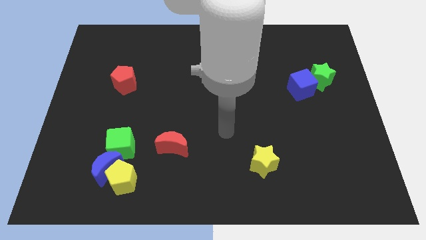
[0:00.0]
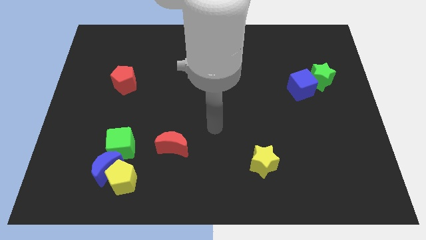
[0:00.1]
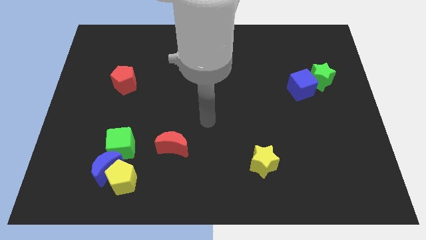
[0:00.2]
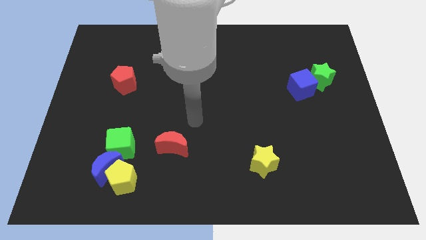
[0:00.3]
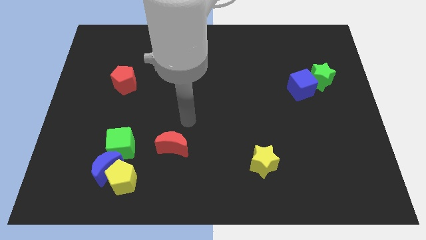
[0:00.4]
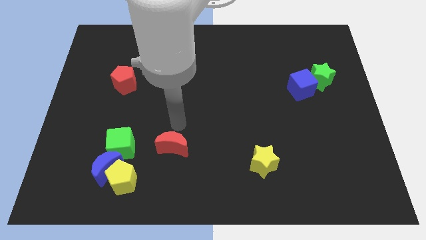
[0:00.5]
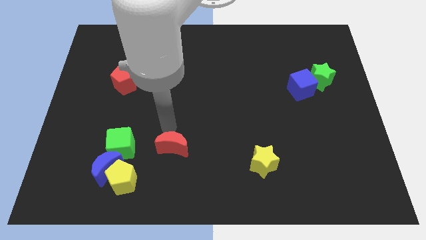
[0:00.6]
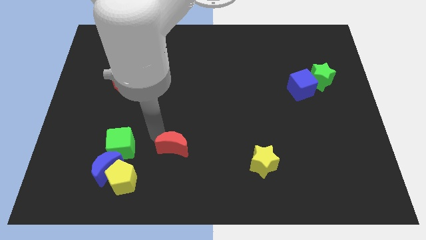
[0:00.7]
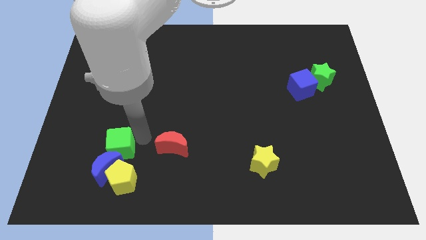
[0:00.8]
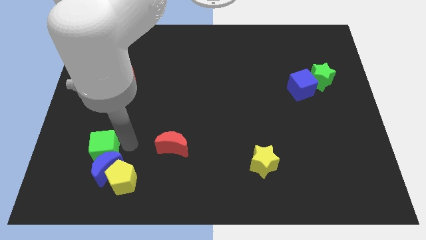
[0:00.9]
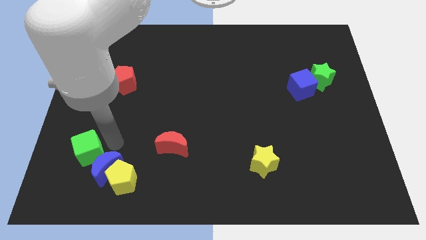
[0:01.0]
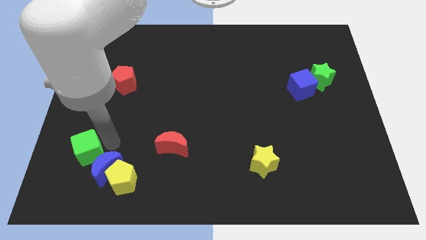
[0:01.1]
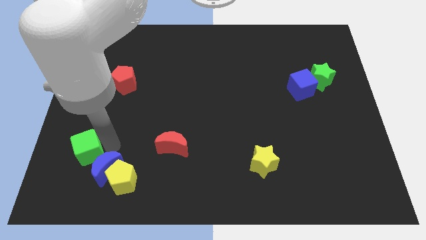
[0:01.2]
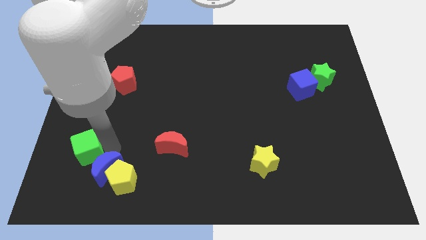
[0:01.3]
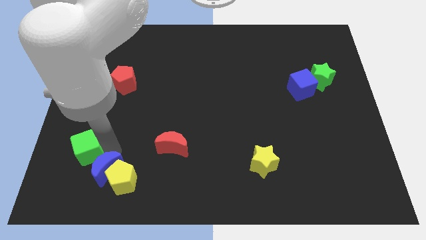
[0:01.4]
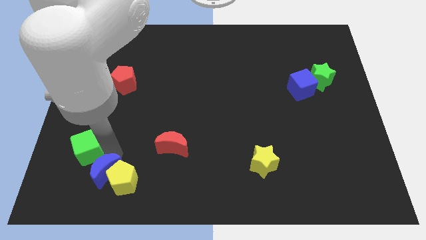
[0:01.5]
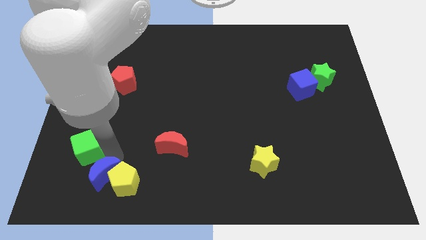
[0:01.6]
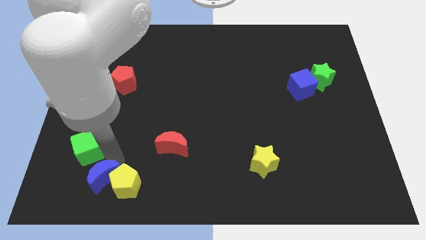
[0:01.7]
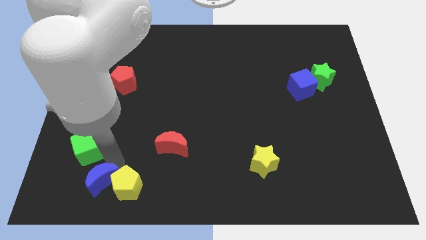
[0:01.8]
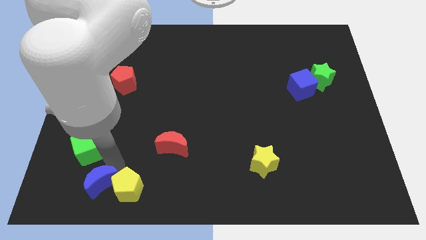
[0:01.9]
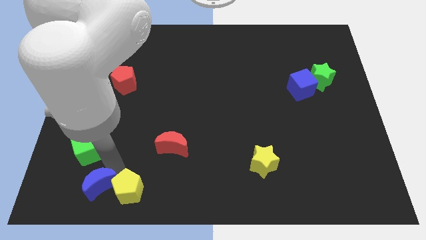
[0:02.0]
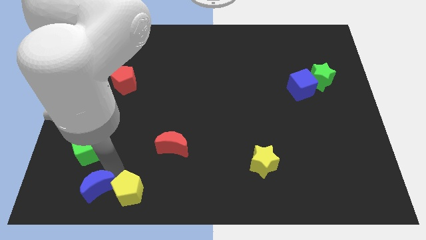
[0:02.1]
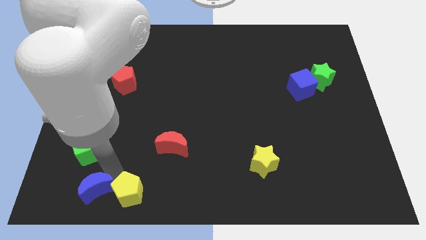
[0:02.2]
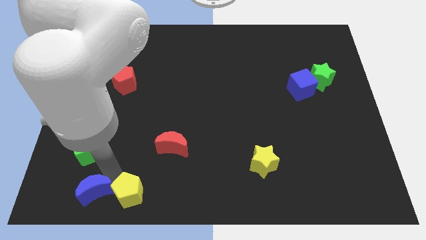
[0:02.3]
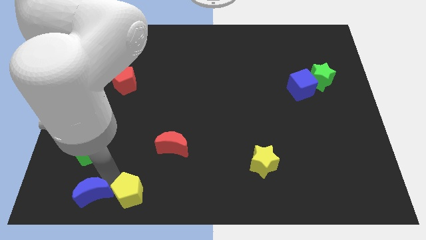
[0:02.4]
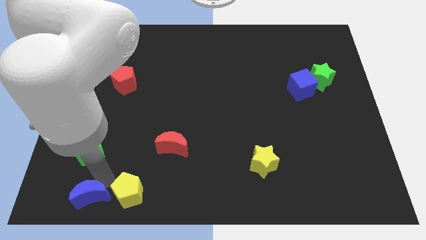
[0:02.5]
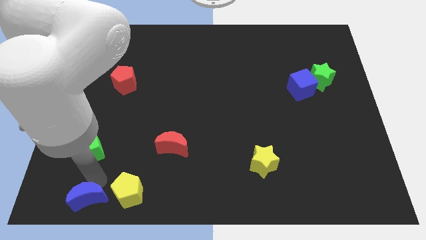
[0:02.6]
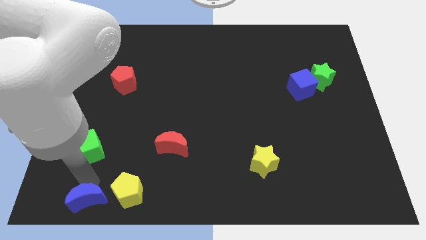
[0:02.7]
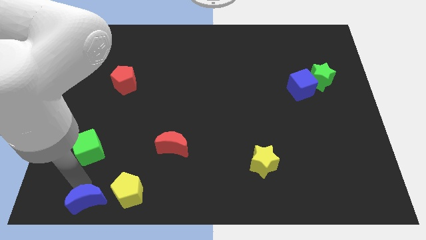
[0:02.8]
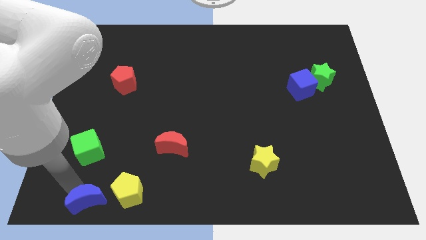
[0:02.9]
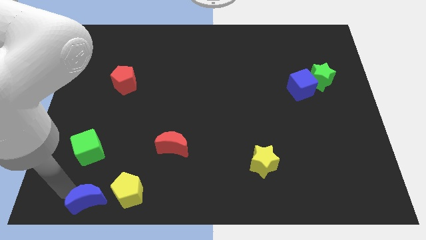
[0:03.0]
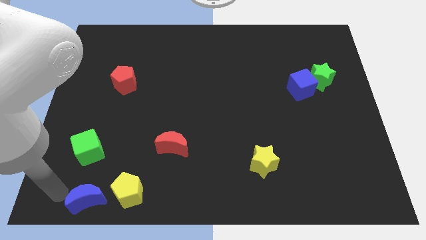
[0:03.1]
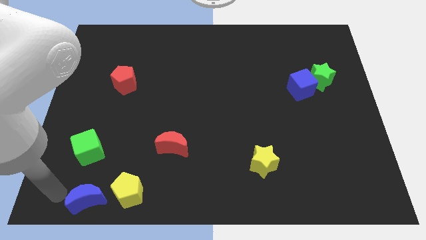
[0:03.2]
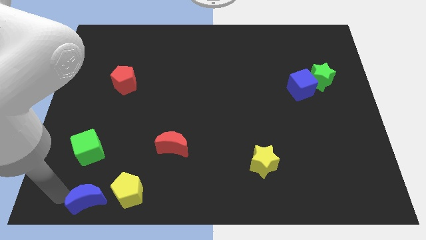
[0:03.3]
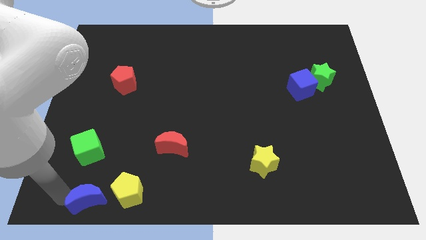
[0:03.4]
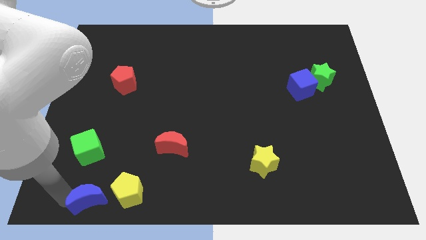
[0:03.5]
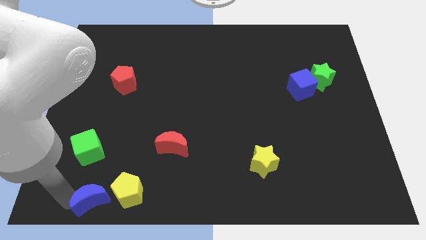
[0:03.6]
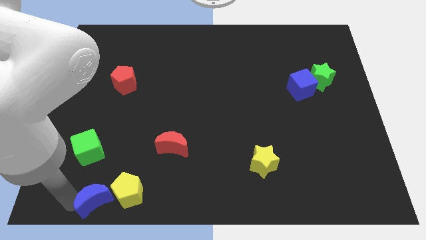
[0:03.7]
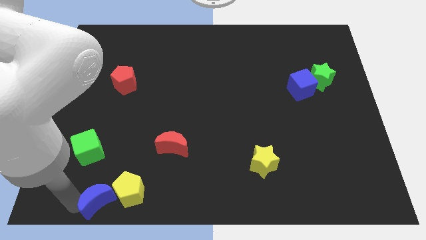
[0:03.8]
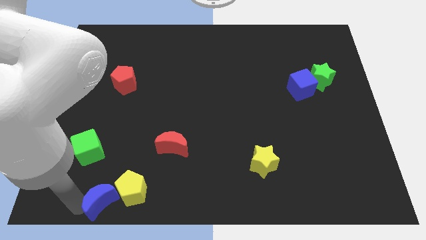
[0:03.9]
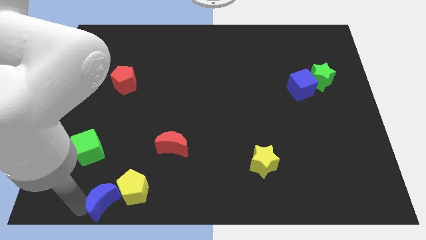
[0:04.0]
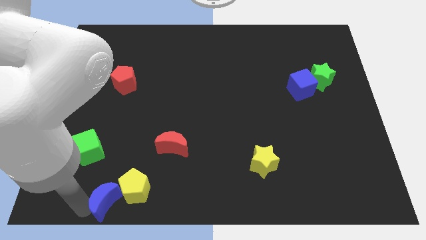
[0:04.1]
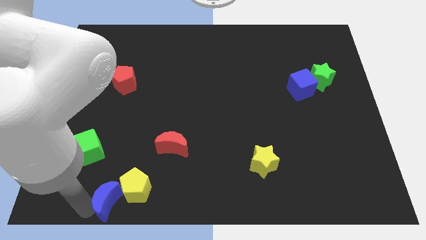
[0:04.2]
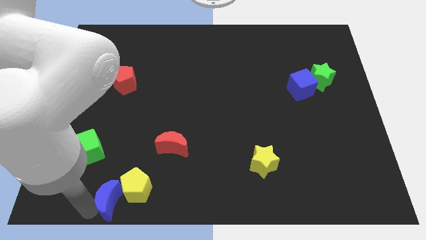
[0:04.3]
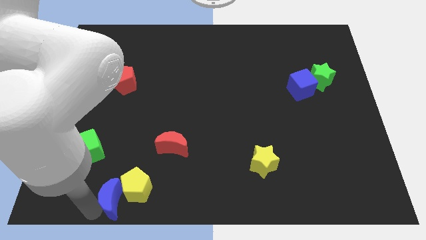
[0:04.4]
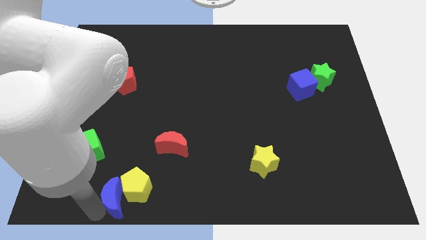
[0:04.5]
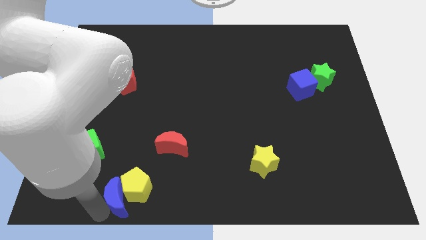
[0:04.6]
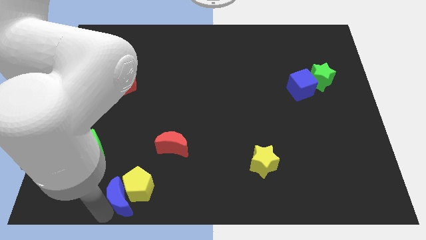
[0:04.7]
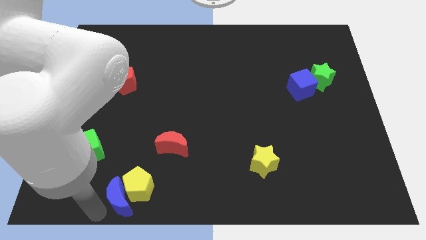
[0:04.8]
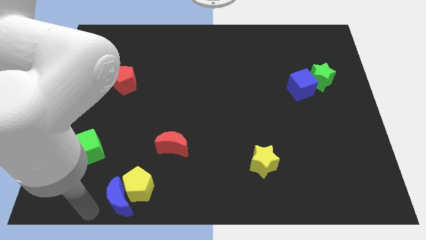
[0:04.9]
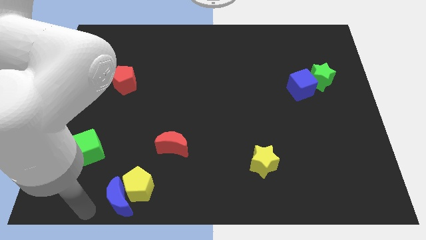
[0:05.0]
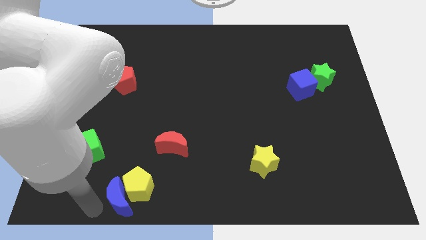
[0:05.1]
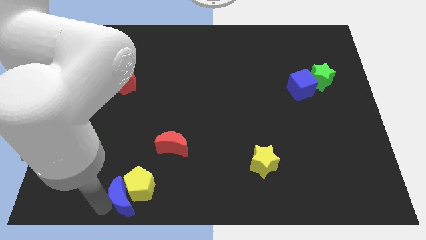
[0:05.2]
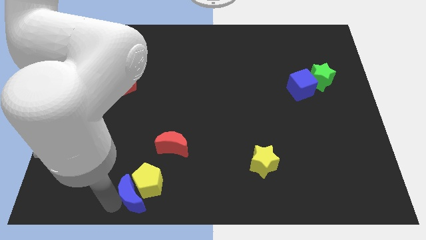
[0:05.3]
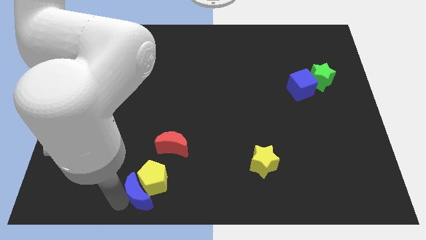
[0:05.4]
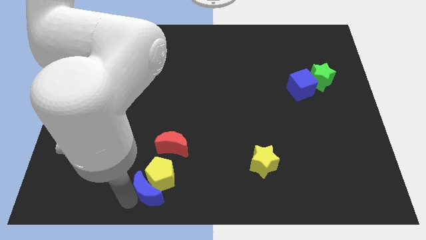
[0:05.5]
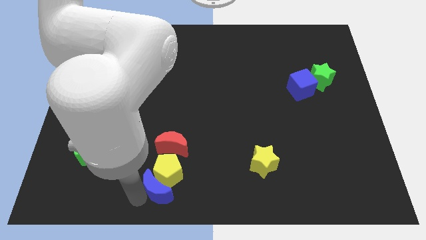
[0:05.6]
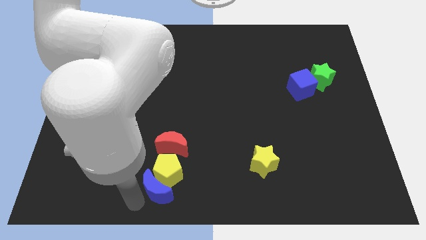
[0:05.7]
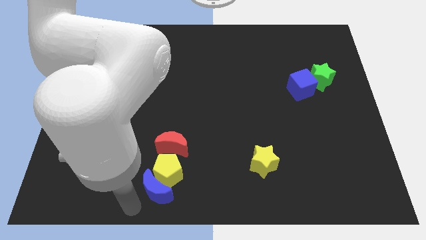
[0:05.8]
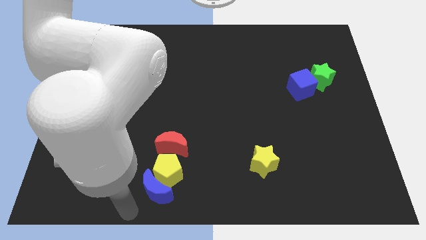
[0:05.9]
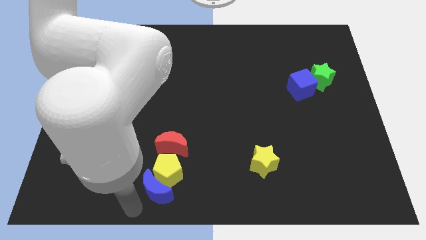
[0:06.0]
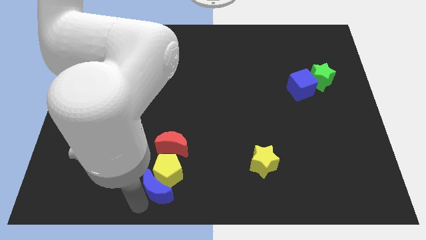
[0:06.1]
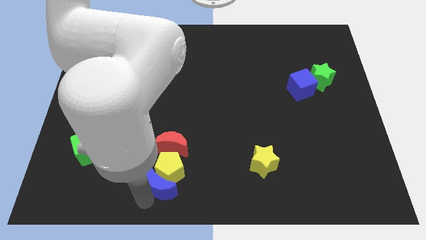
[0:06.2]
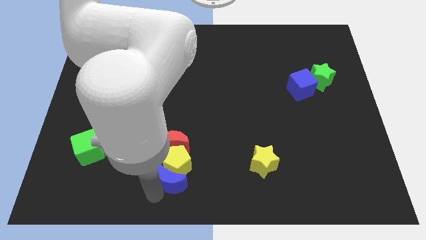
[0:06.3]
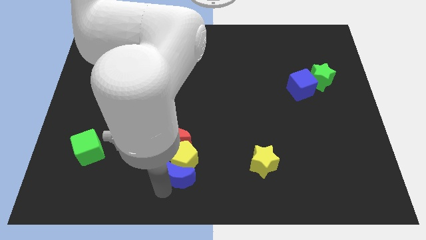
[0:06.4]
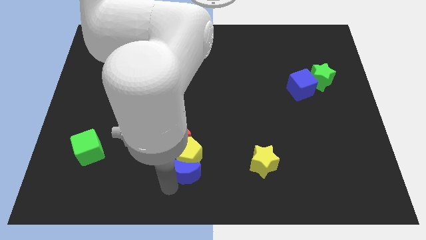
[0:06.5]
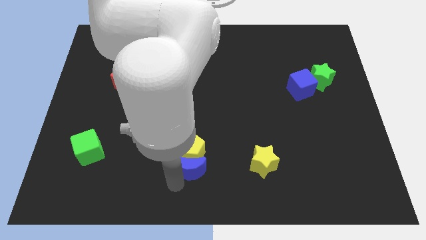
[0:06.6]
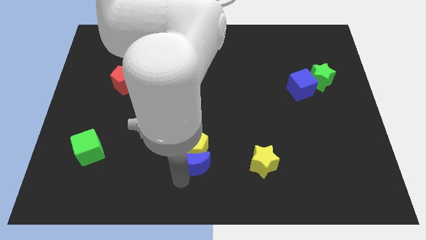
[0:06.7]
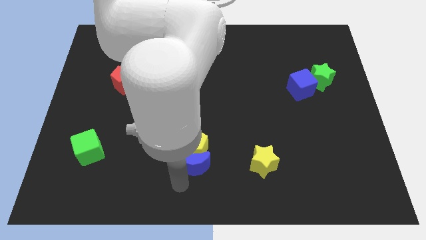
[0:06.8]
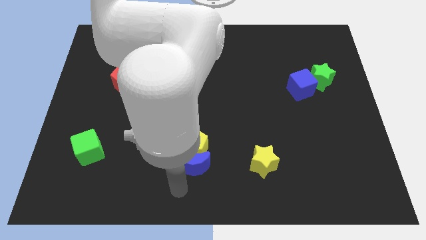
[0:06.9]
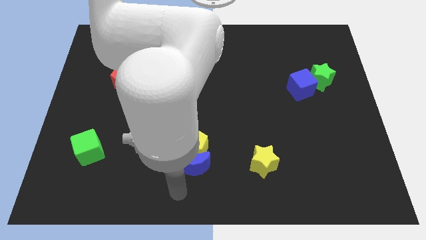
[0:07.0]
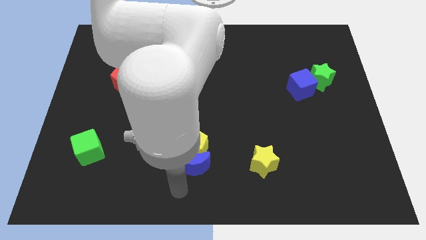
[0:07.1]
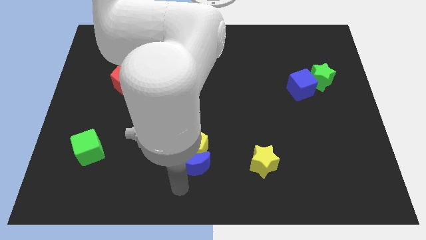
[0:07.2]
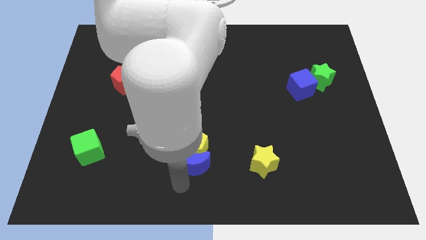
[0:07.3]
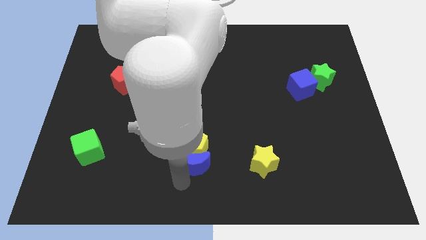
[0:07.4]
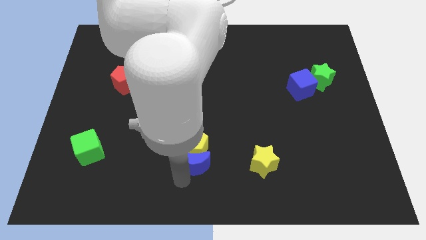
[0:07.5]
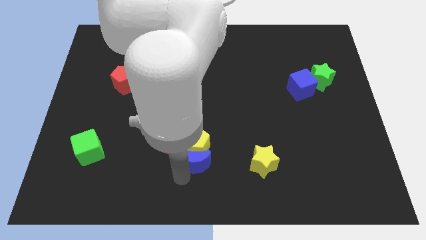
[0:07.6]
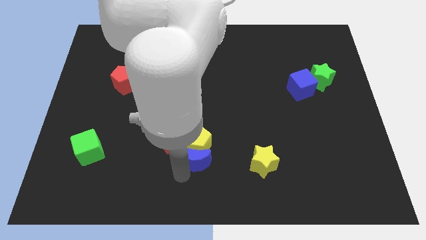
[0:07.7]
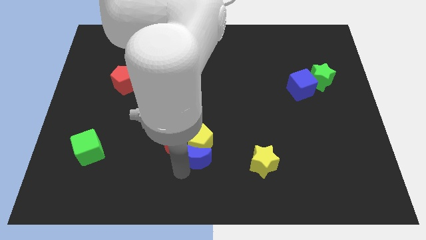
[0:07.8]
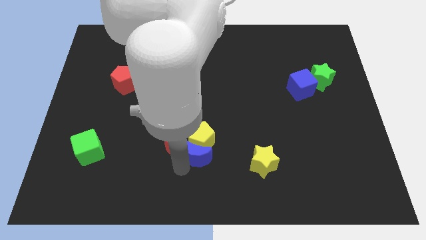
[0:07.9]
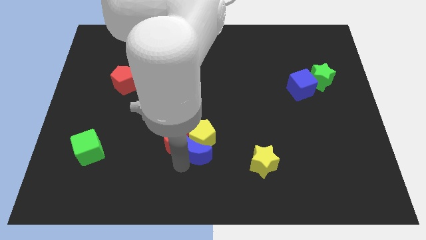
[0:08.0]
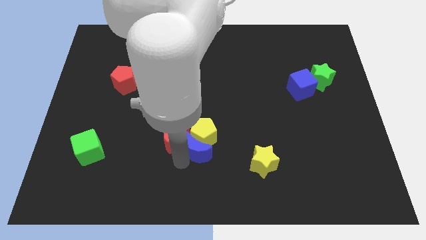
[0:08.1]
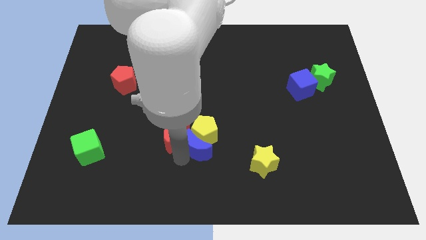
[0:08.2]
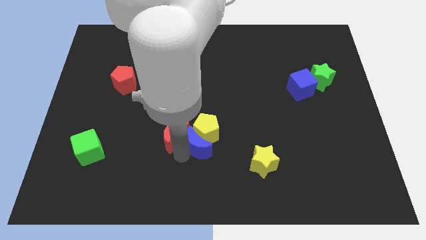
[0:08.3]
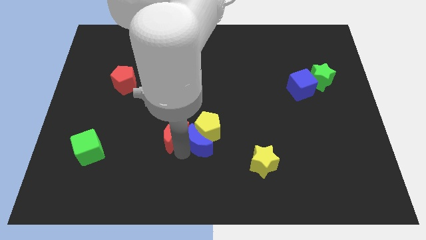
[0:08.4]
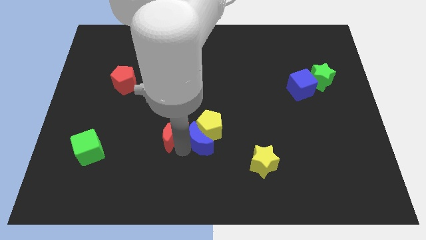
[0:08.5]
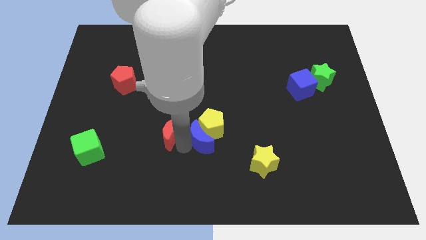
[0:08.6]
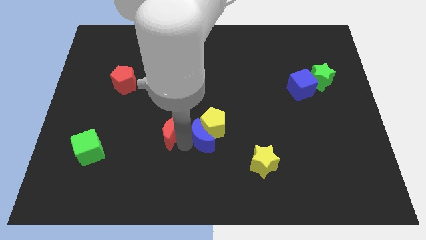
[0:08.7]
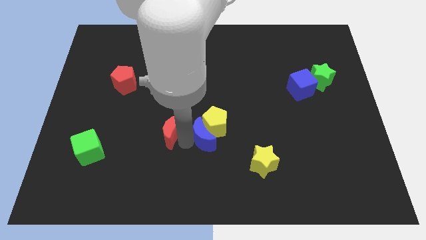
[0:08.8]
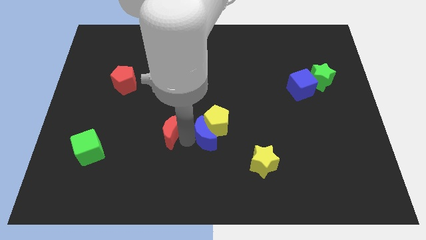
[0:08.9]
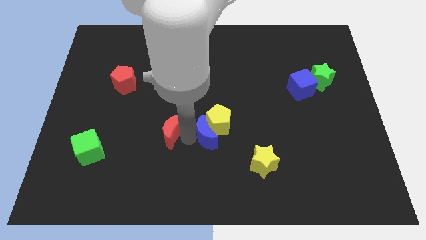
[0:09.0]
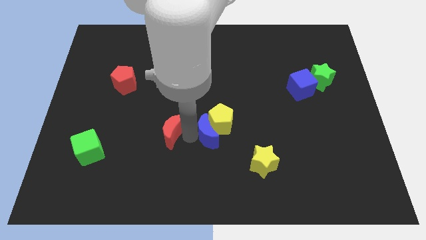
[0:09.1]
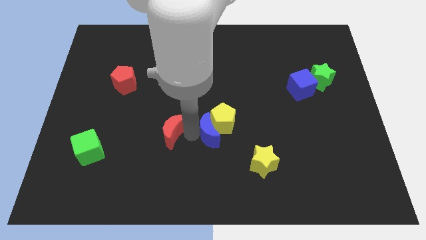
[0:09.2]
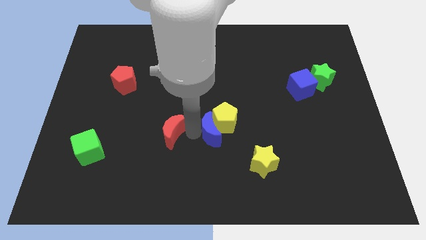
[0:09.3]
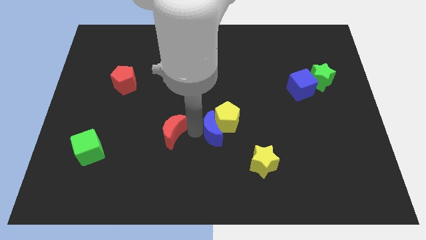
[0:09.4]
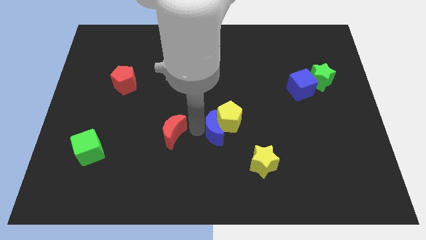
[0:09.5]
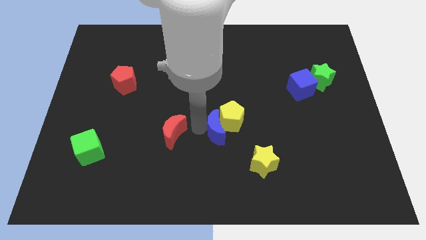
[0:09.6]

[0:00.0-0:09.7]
push the blue moon to the top left side of the yellow star
